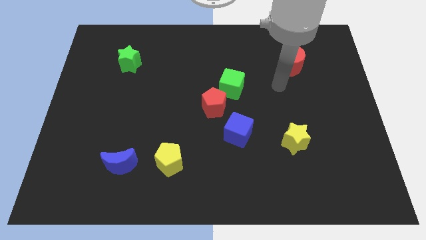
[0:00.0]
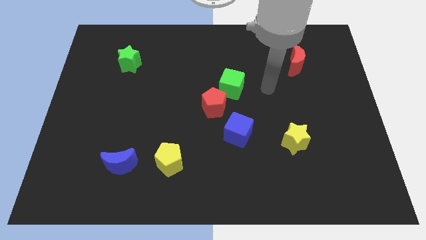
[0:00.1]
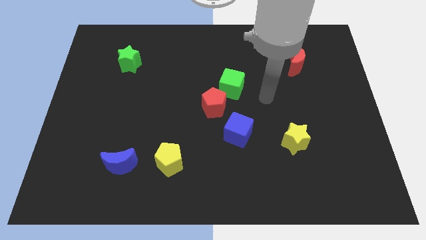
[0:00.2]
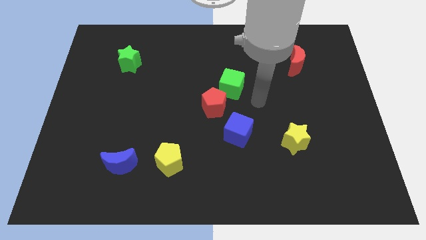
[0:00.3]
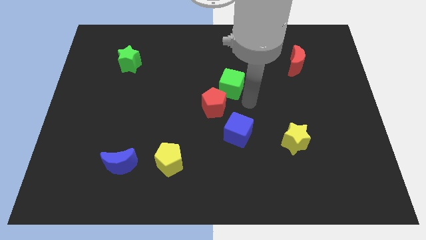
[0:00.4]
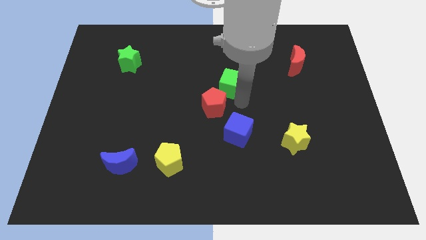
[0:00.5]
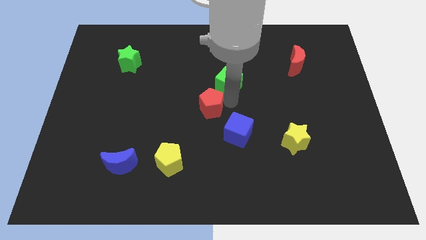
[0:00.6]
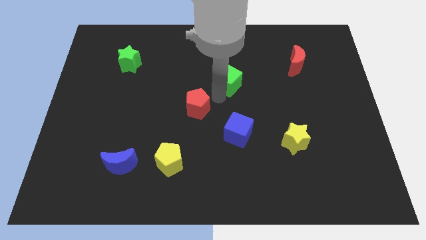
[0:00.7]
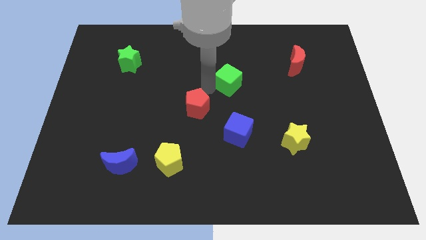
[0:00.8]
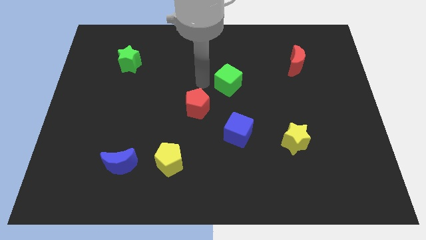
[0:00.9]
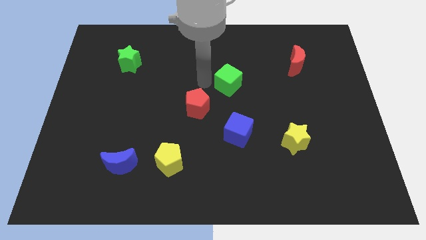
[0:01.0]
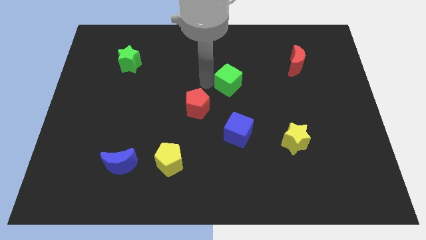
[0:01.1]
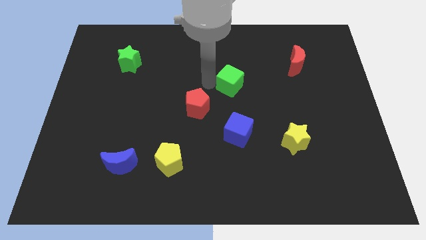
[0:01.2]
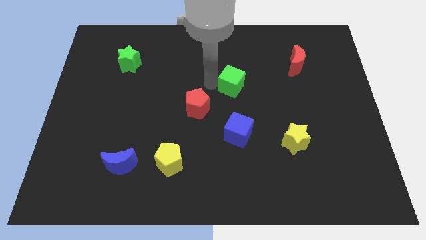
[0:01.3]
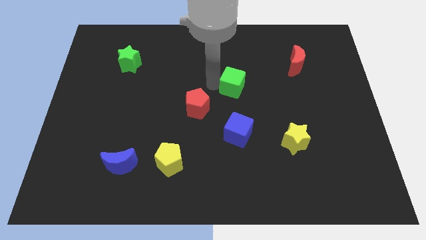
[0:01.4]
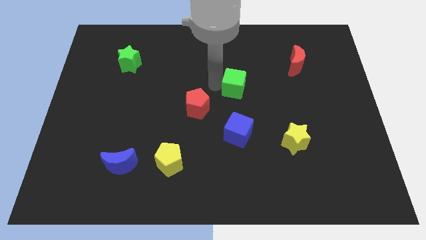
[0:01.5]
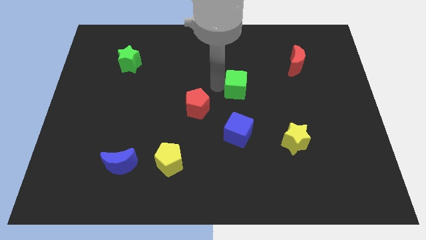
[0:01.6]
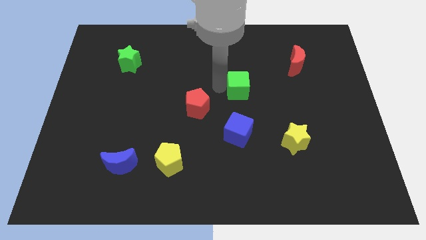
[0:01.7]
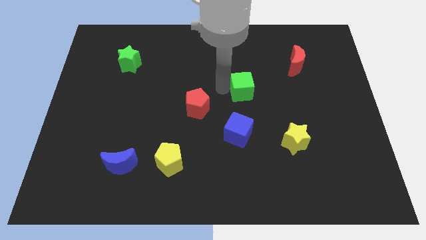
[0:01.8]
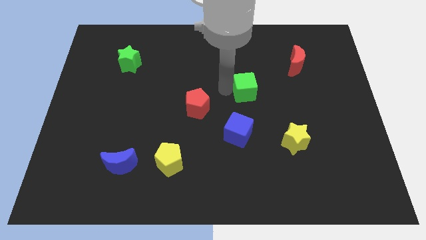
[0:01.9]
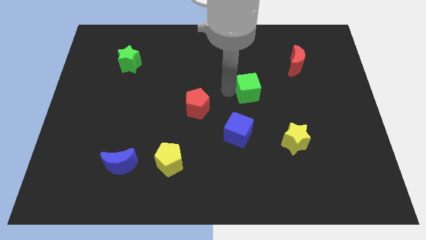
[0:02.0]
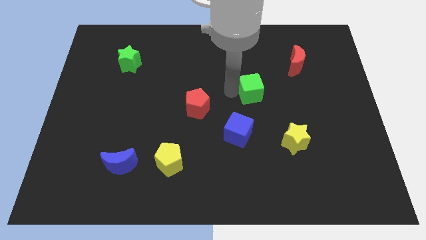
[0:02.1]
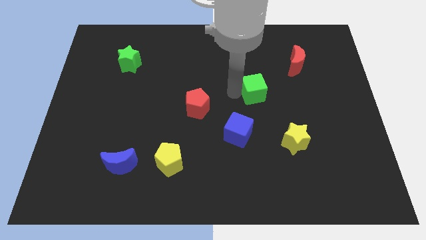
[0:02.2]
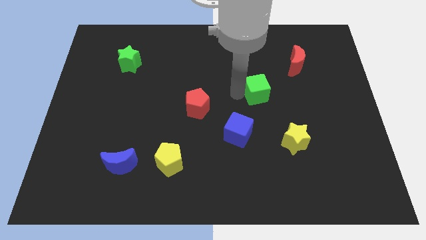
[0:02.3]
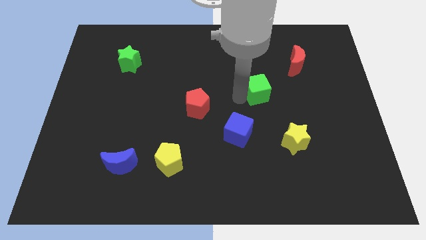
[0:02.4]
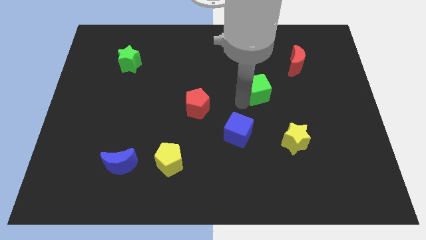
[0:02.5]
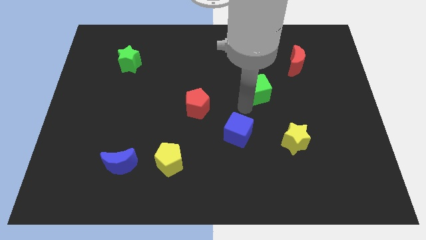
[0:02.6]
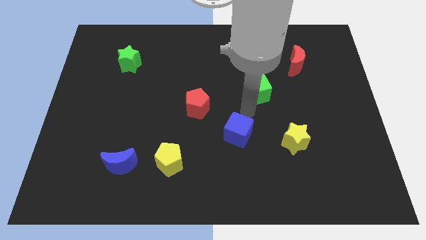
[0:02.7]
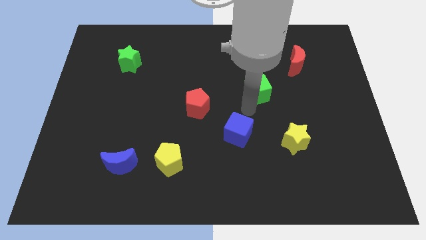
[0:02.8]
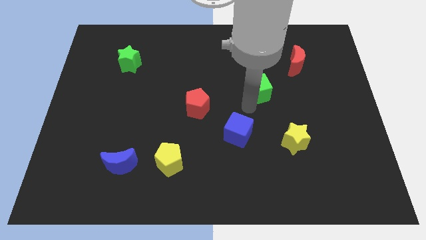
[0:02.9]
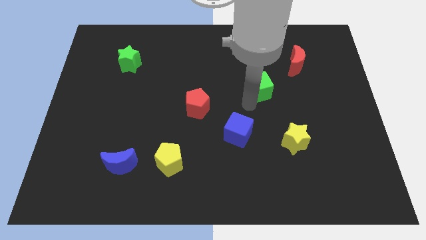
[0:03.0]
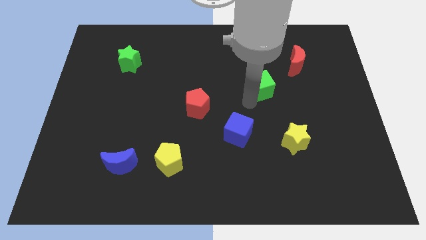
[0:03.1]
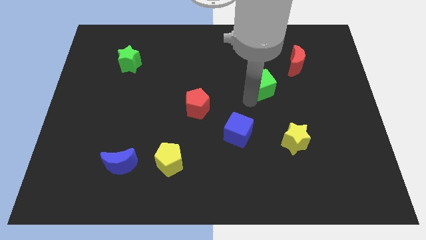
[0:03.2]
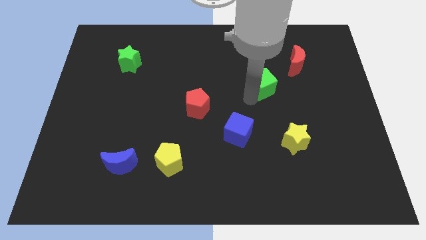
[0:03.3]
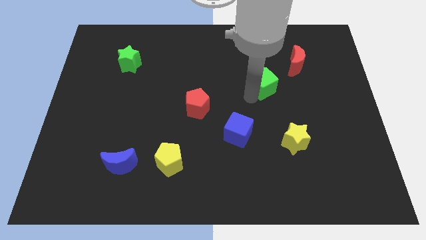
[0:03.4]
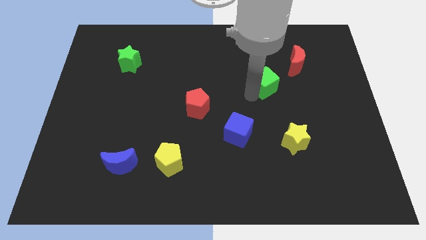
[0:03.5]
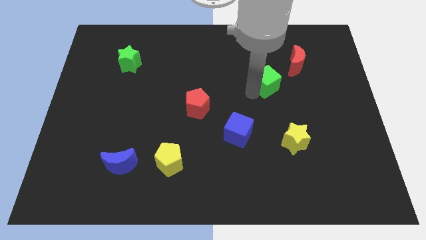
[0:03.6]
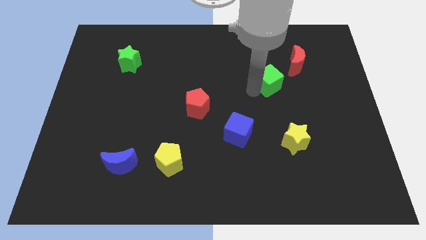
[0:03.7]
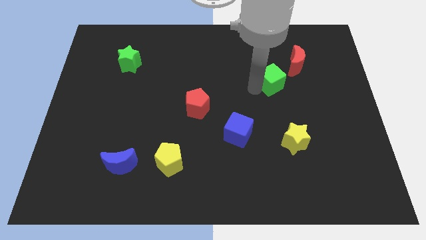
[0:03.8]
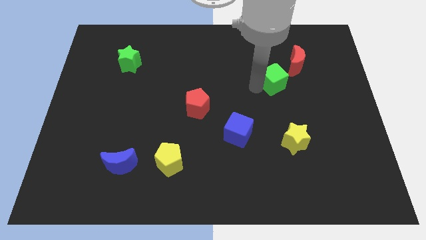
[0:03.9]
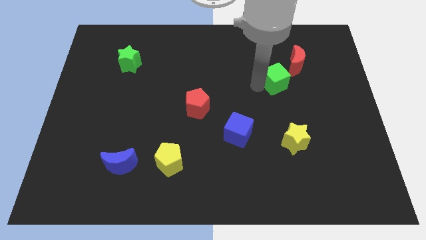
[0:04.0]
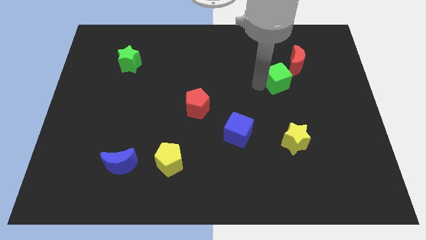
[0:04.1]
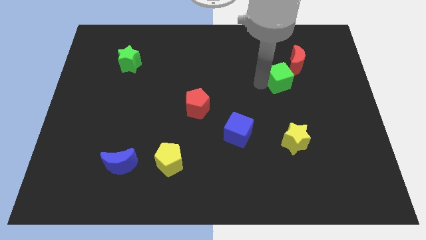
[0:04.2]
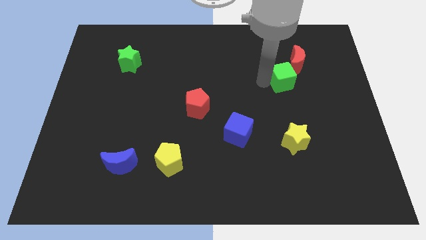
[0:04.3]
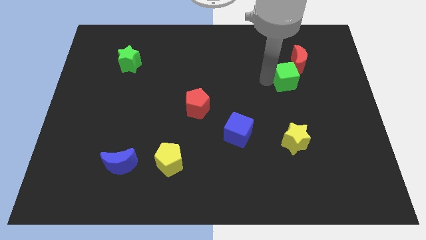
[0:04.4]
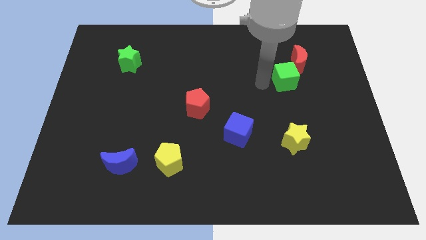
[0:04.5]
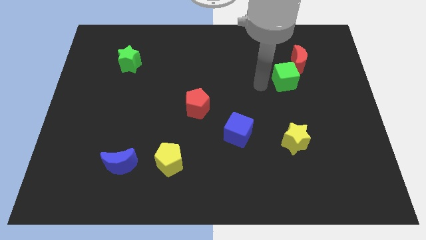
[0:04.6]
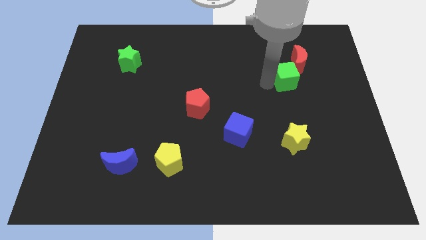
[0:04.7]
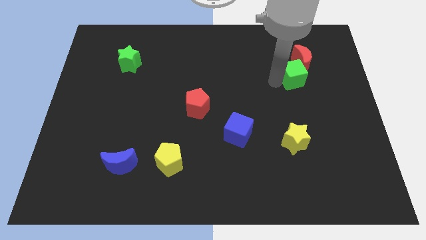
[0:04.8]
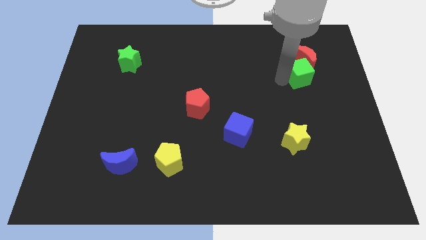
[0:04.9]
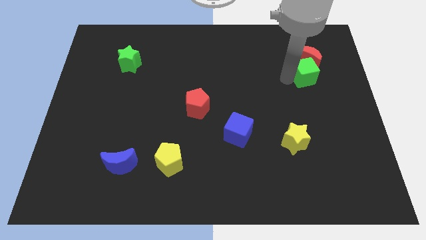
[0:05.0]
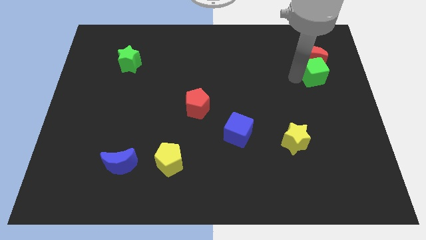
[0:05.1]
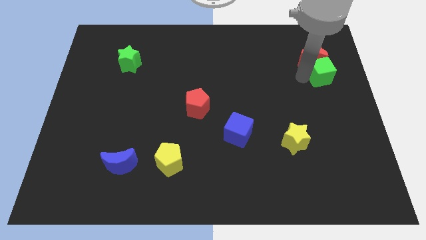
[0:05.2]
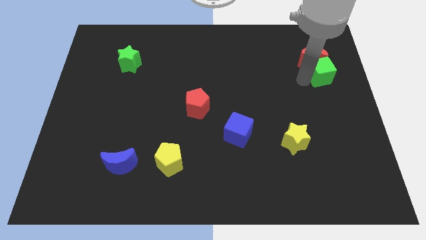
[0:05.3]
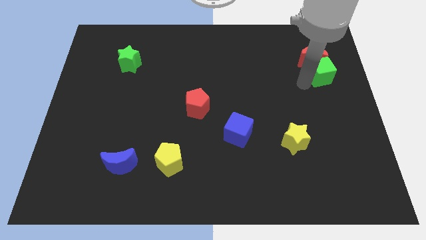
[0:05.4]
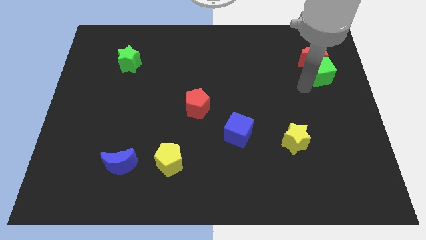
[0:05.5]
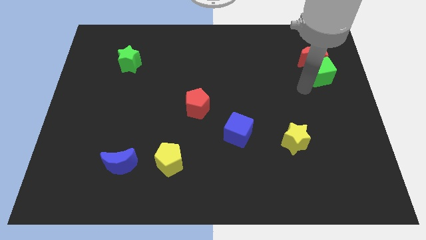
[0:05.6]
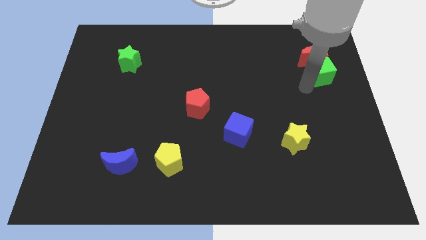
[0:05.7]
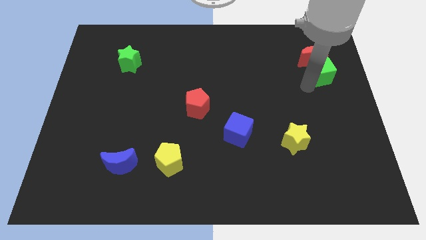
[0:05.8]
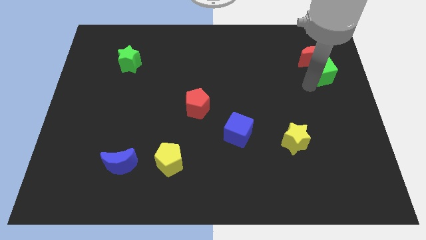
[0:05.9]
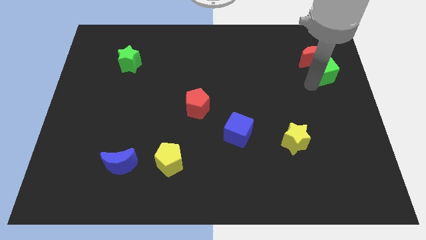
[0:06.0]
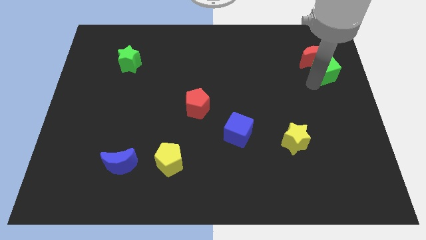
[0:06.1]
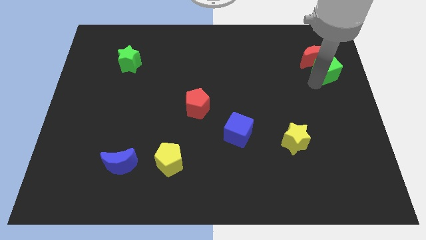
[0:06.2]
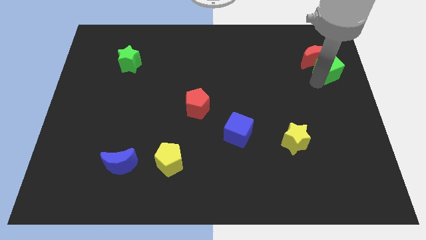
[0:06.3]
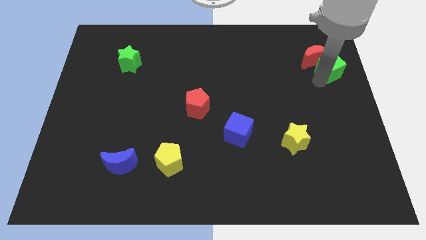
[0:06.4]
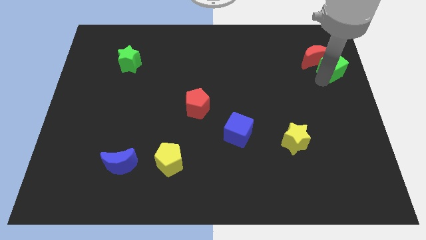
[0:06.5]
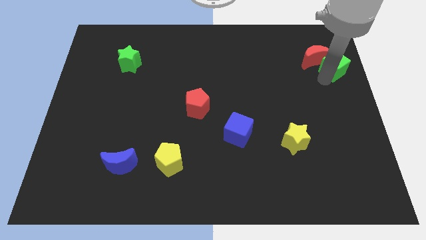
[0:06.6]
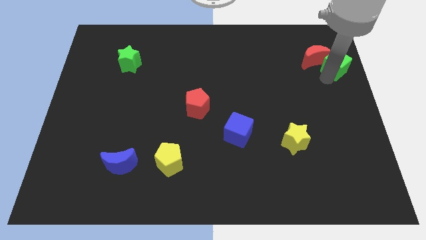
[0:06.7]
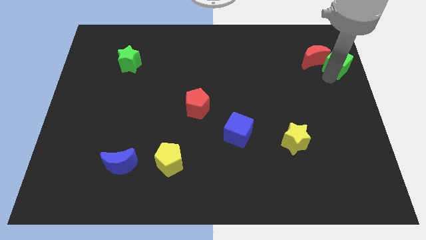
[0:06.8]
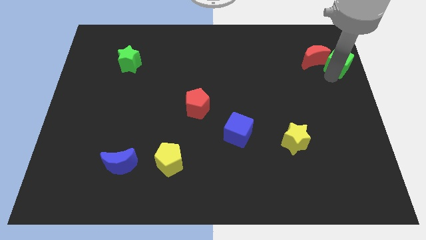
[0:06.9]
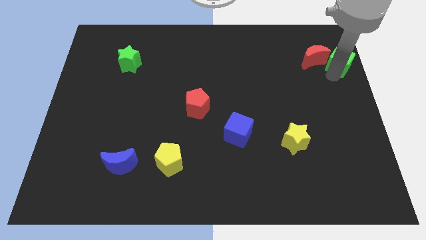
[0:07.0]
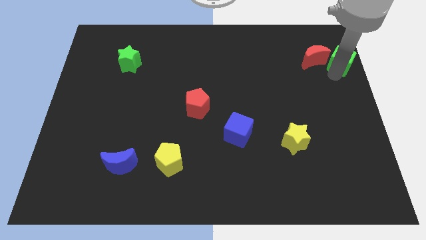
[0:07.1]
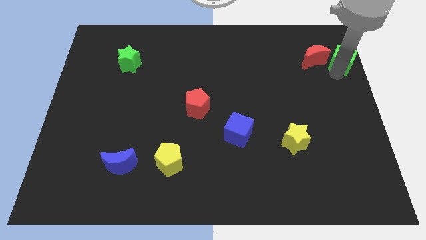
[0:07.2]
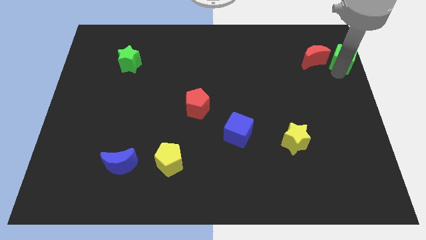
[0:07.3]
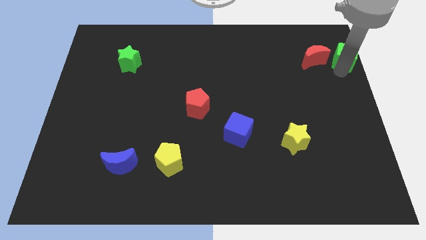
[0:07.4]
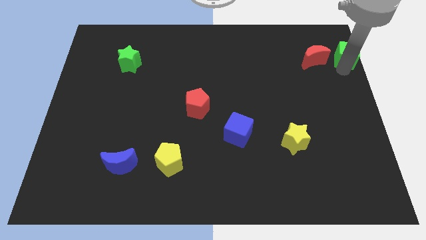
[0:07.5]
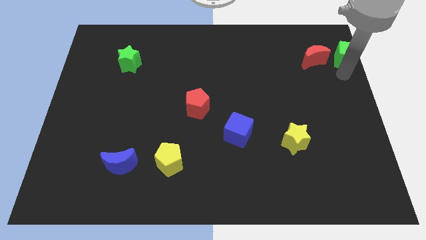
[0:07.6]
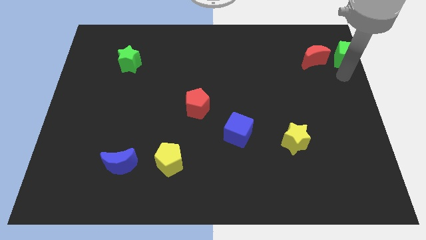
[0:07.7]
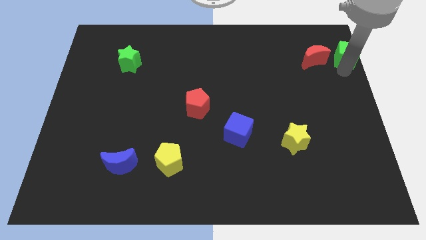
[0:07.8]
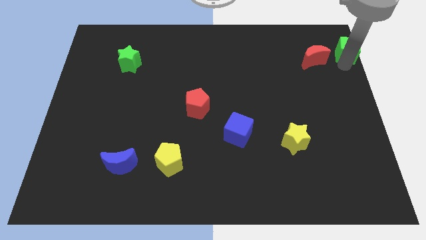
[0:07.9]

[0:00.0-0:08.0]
push the green cube to the top right of the board
